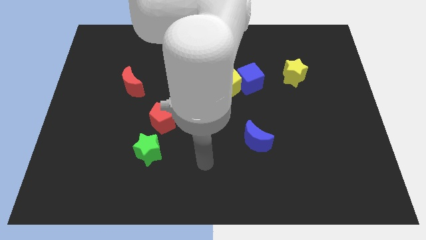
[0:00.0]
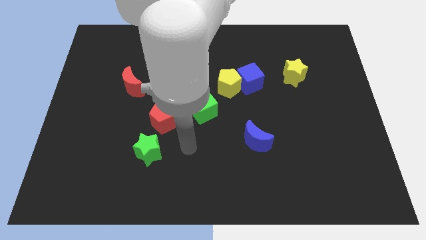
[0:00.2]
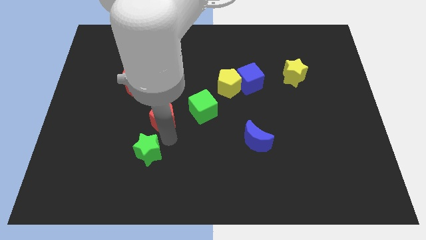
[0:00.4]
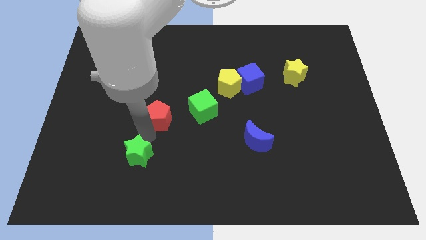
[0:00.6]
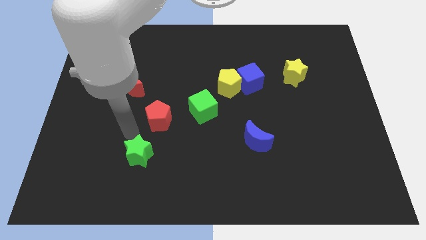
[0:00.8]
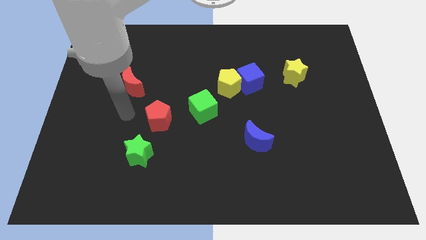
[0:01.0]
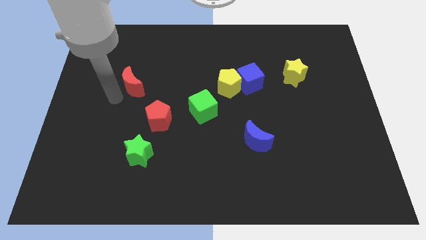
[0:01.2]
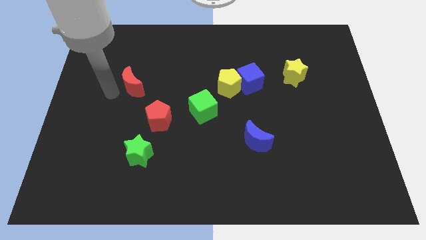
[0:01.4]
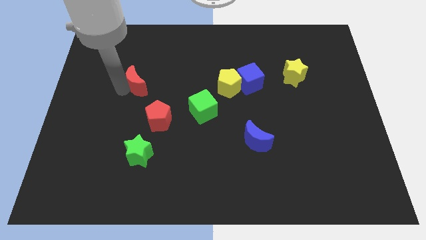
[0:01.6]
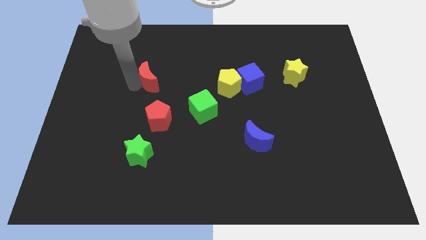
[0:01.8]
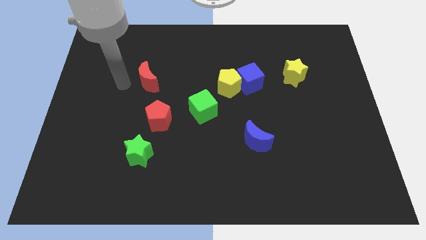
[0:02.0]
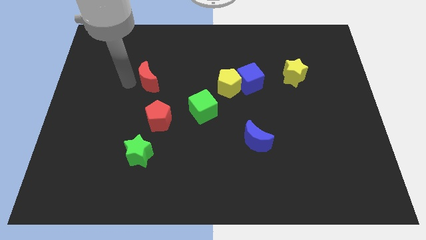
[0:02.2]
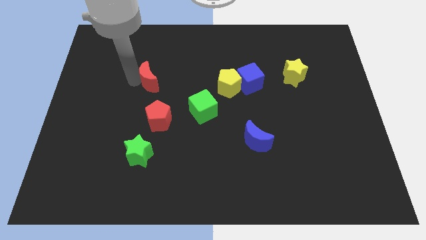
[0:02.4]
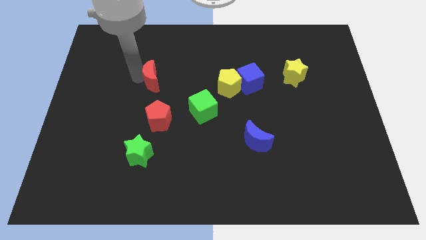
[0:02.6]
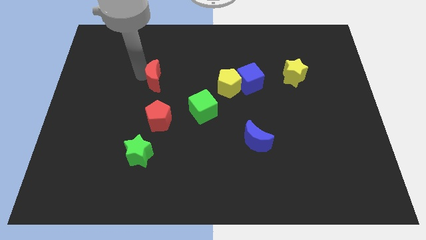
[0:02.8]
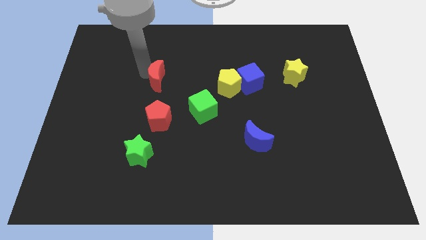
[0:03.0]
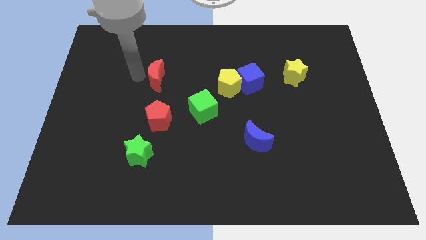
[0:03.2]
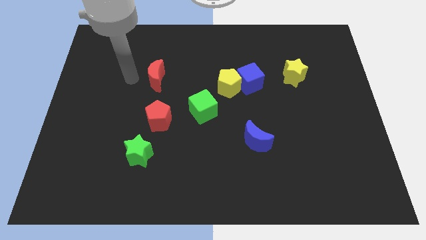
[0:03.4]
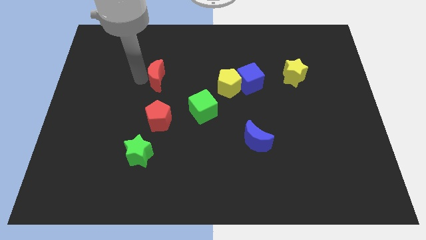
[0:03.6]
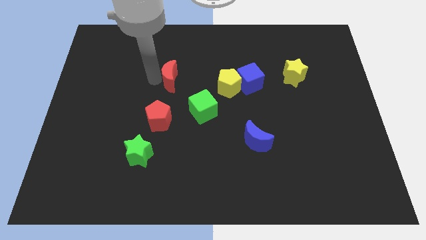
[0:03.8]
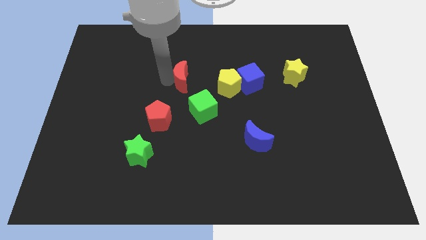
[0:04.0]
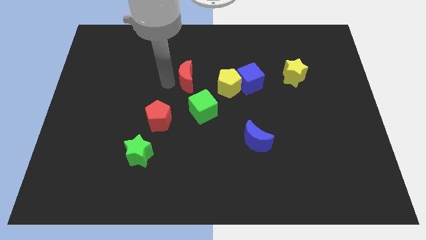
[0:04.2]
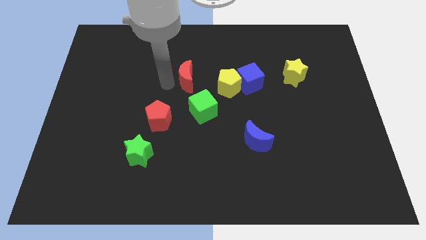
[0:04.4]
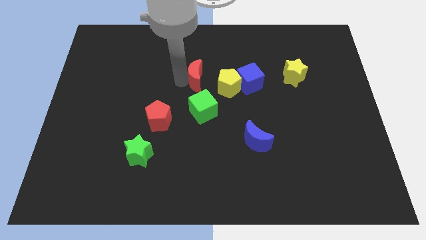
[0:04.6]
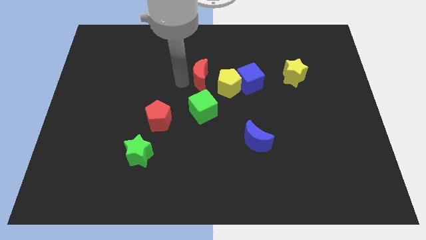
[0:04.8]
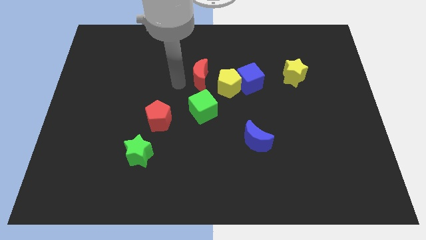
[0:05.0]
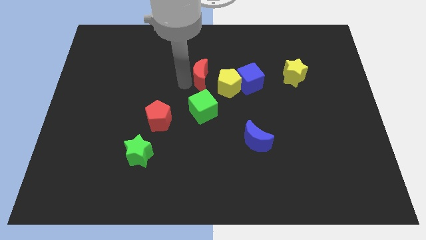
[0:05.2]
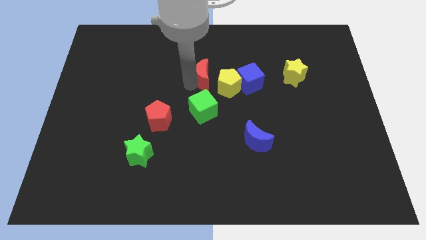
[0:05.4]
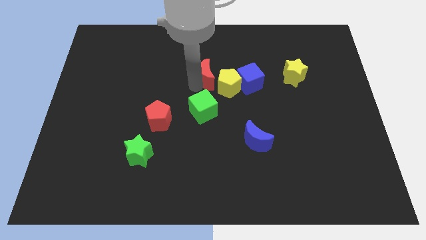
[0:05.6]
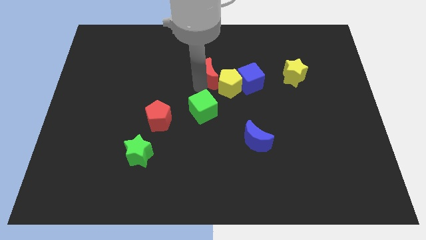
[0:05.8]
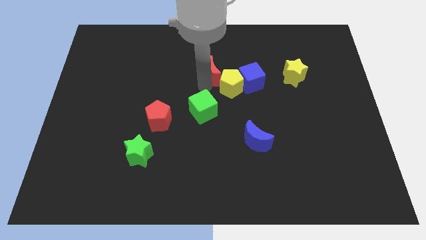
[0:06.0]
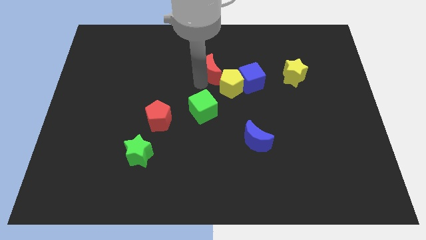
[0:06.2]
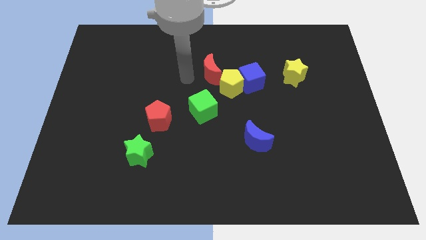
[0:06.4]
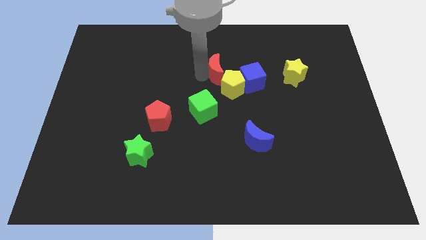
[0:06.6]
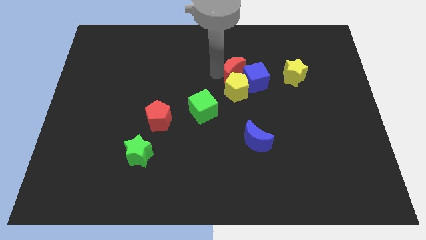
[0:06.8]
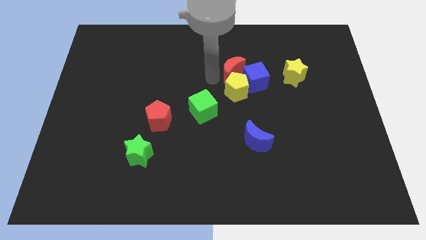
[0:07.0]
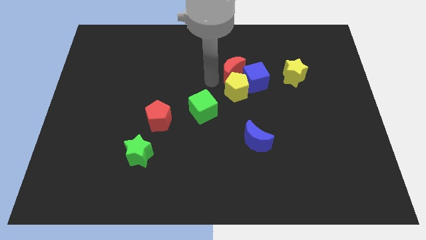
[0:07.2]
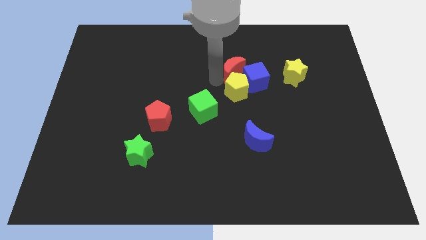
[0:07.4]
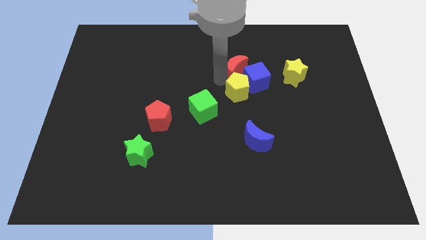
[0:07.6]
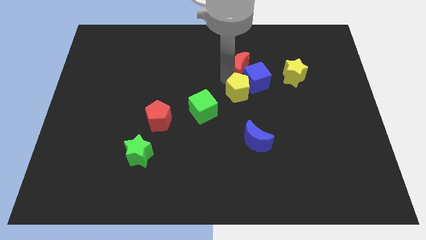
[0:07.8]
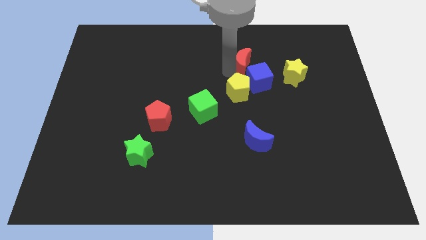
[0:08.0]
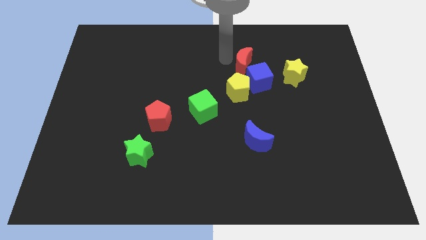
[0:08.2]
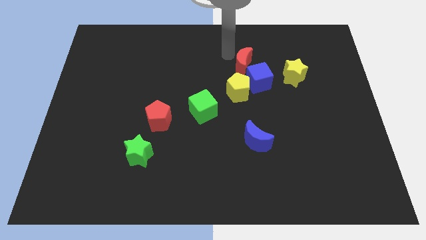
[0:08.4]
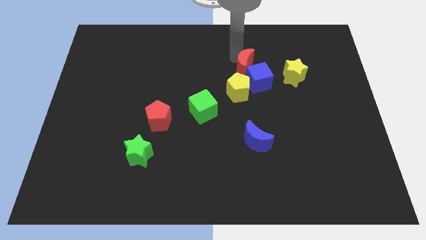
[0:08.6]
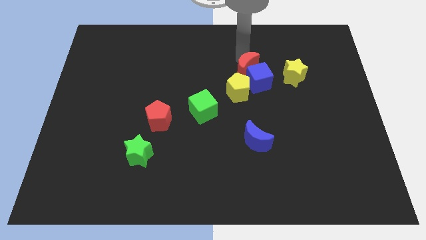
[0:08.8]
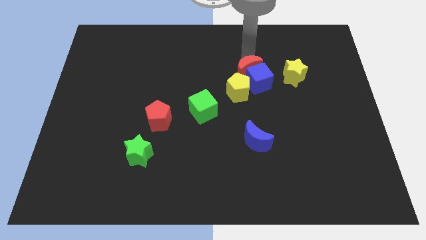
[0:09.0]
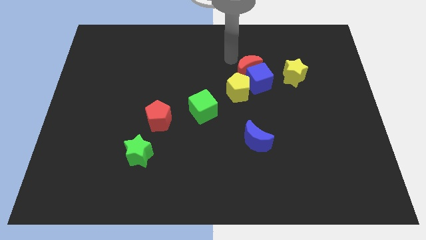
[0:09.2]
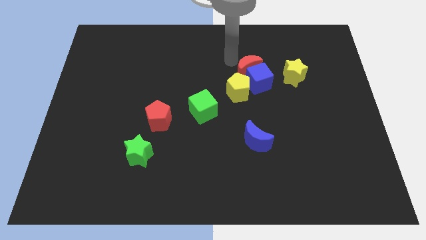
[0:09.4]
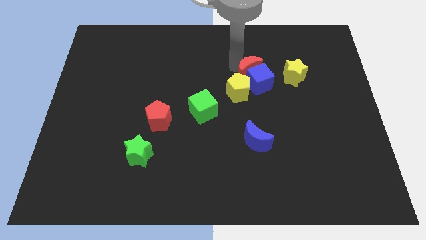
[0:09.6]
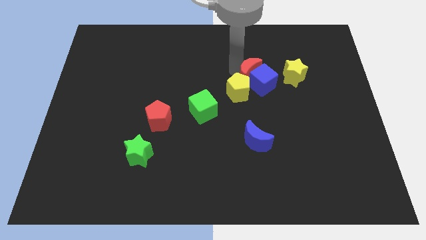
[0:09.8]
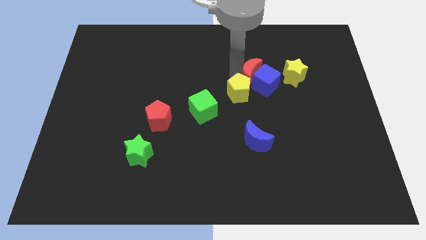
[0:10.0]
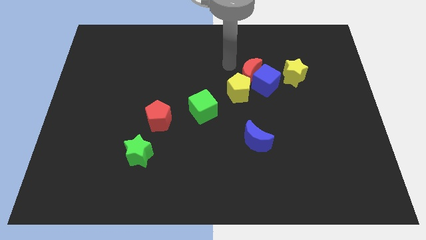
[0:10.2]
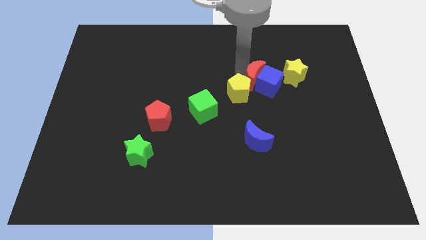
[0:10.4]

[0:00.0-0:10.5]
move the red moon right of the yellow pentagon

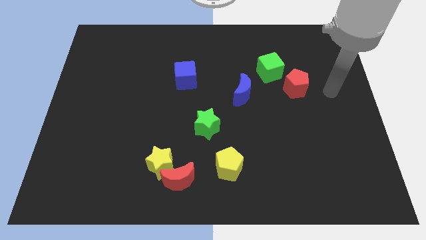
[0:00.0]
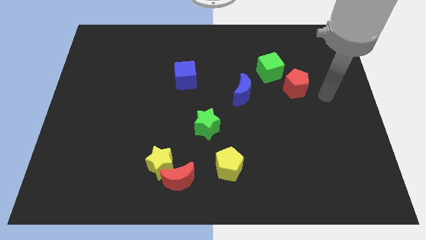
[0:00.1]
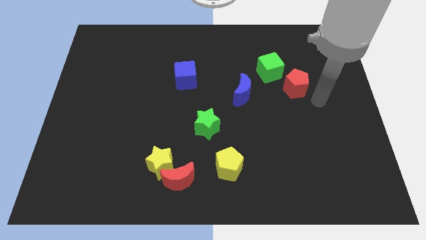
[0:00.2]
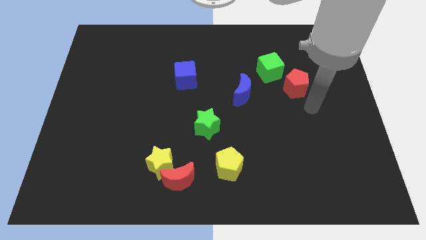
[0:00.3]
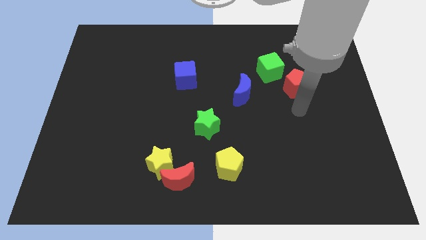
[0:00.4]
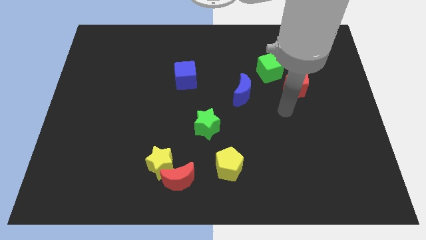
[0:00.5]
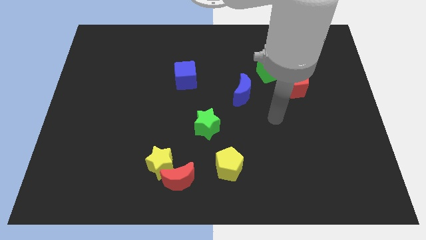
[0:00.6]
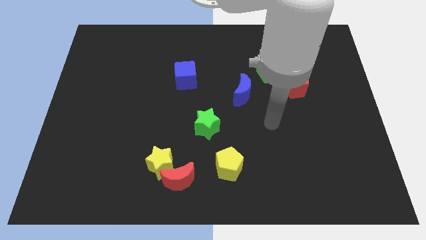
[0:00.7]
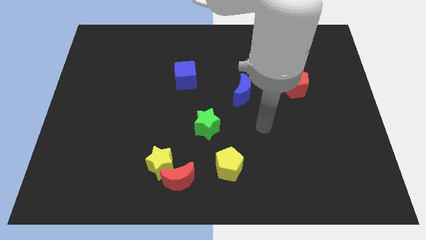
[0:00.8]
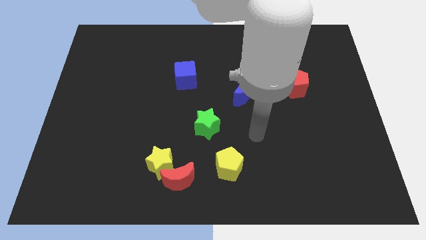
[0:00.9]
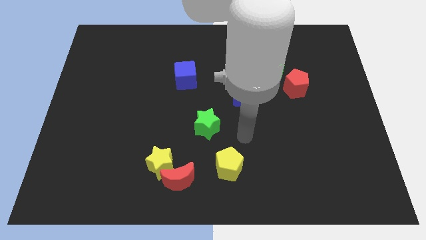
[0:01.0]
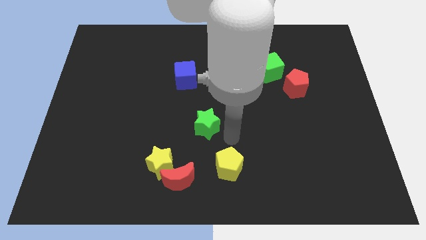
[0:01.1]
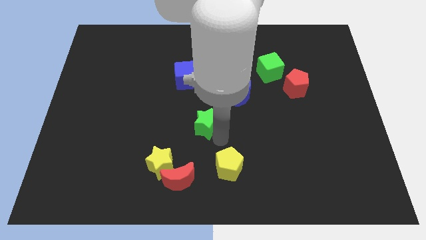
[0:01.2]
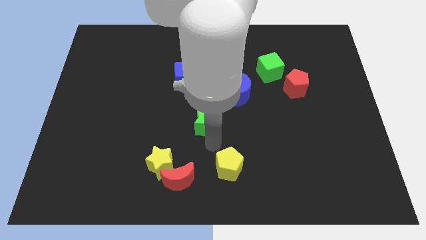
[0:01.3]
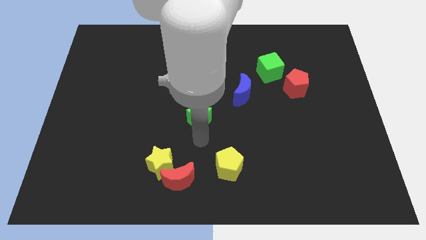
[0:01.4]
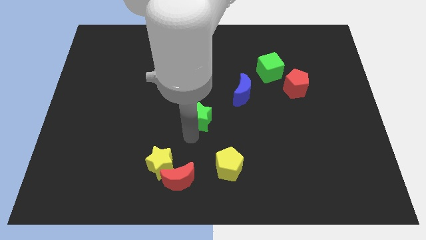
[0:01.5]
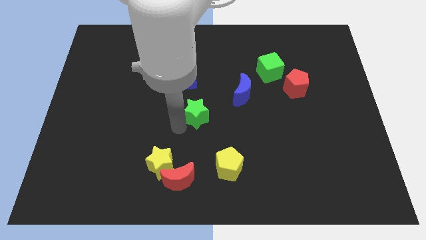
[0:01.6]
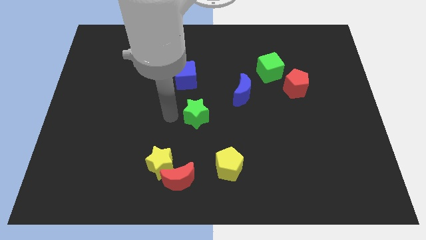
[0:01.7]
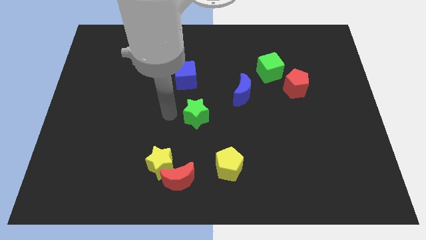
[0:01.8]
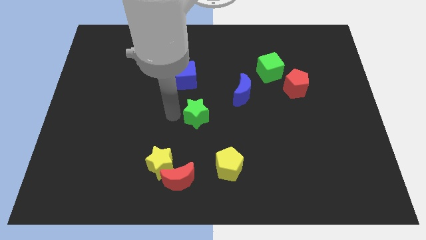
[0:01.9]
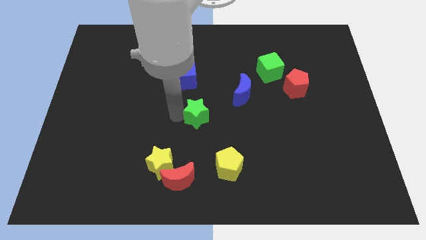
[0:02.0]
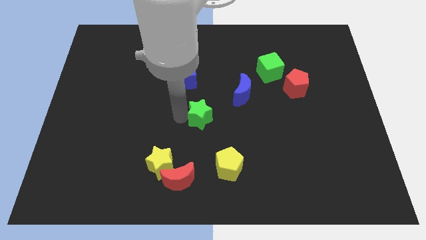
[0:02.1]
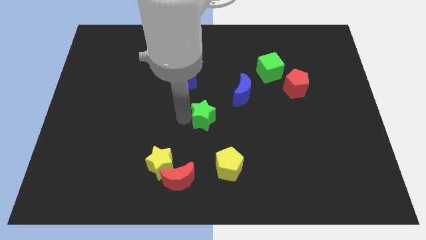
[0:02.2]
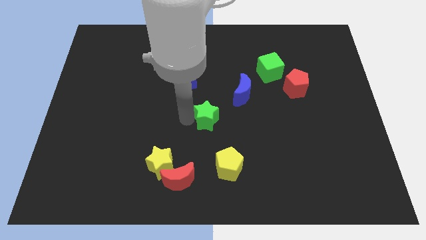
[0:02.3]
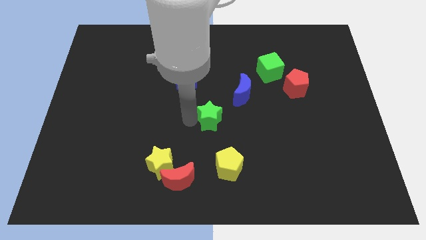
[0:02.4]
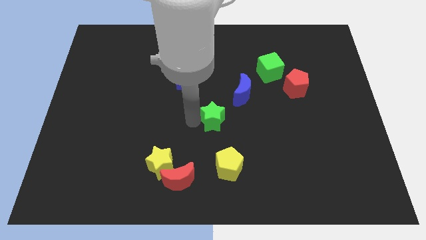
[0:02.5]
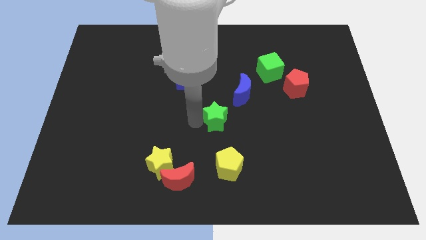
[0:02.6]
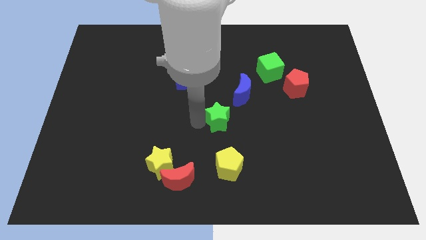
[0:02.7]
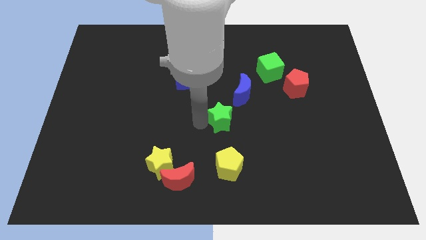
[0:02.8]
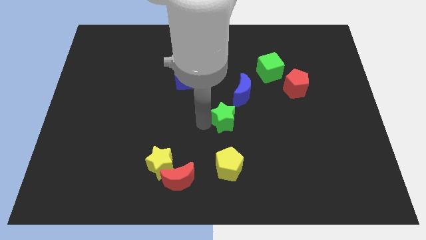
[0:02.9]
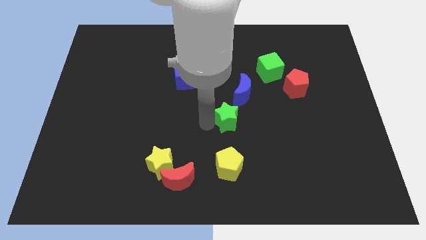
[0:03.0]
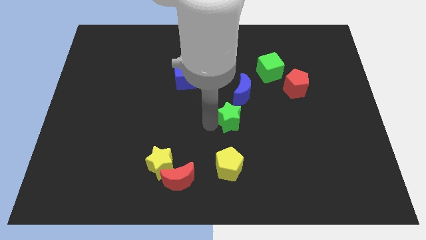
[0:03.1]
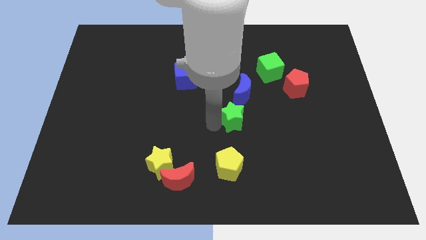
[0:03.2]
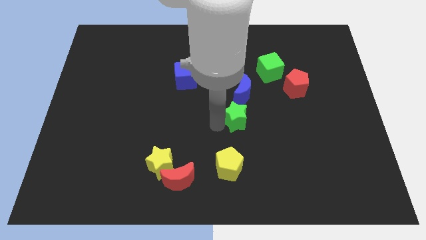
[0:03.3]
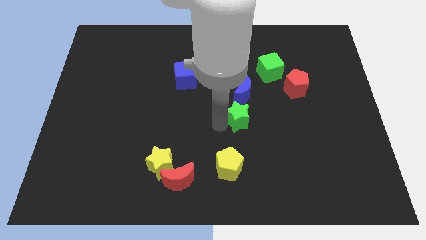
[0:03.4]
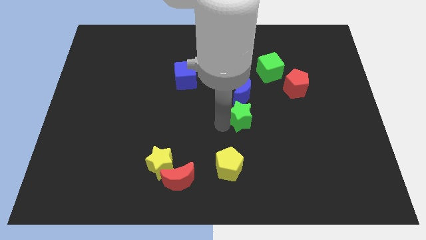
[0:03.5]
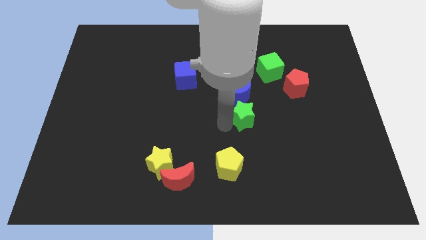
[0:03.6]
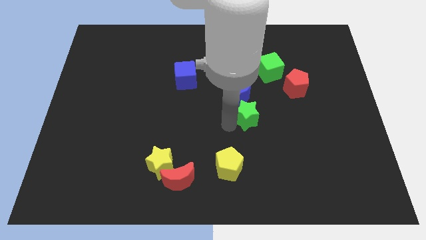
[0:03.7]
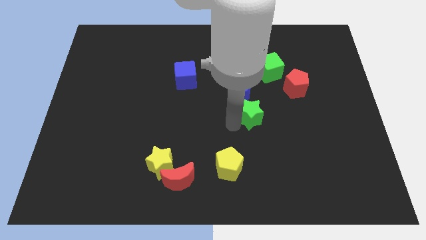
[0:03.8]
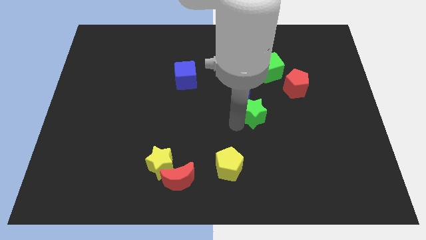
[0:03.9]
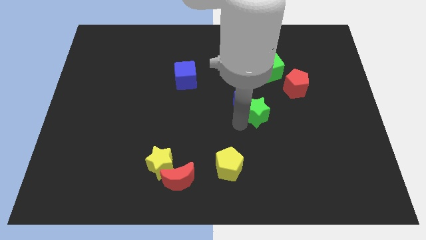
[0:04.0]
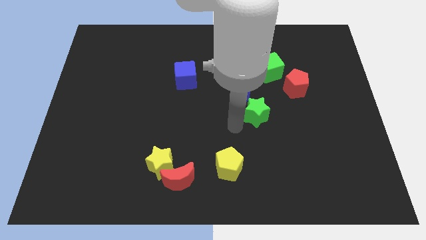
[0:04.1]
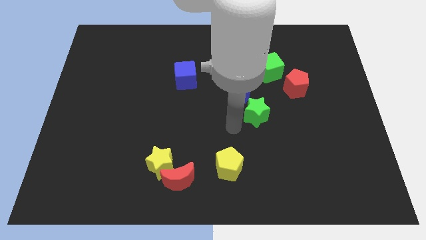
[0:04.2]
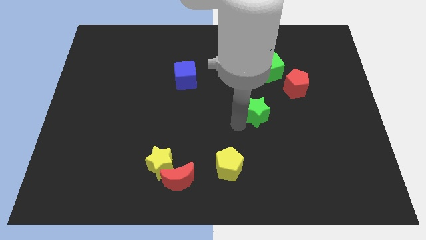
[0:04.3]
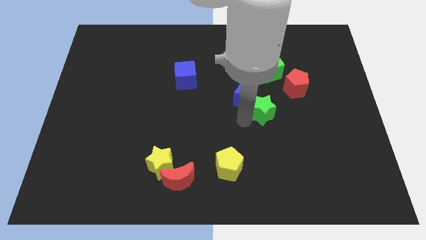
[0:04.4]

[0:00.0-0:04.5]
put the green star to the bottom of the green cube
